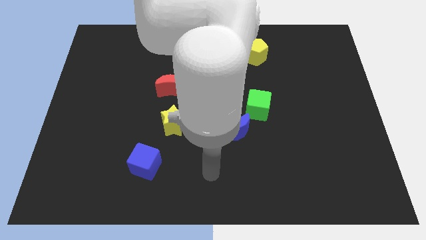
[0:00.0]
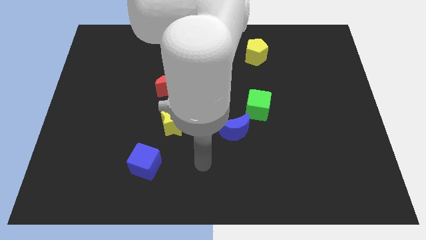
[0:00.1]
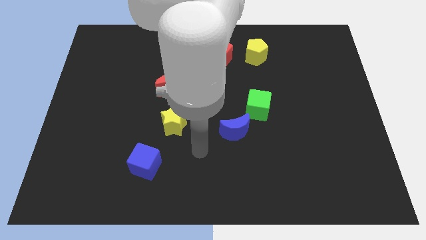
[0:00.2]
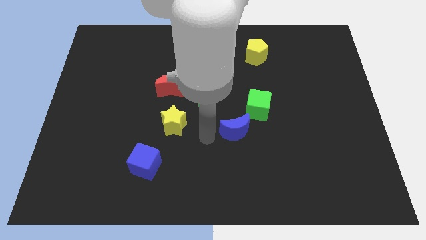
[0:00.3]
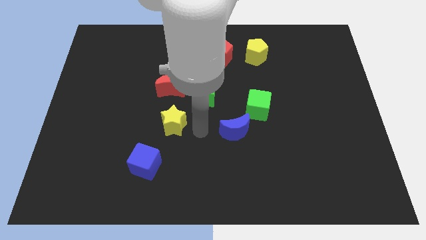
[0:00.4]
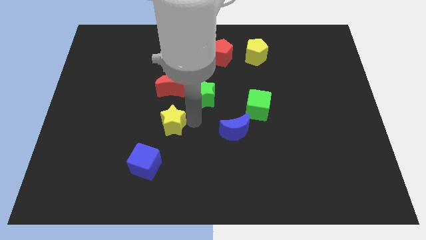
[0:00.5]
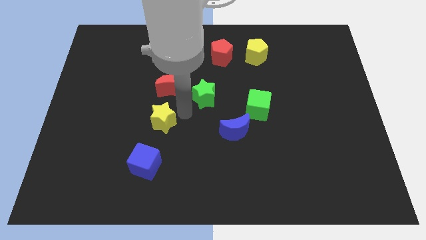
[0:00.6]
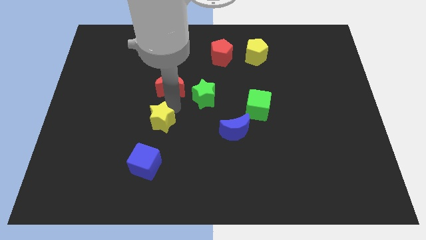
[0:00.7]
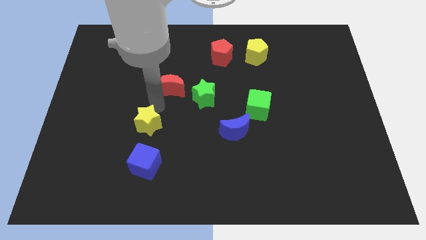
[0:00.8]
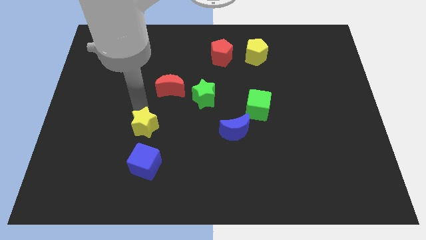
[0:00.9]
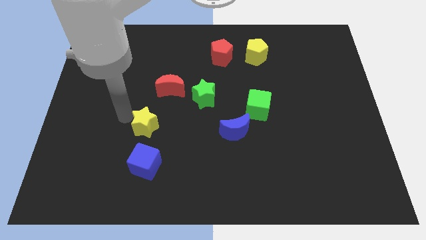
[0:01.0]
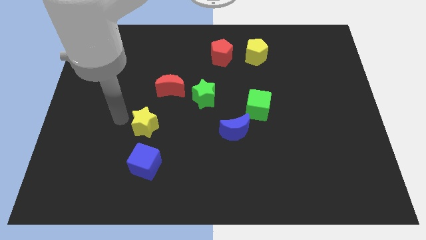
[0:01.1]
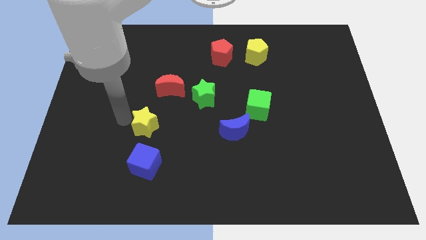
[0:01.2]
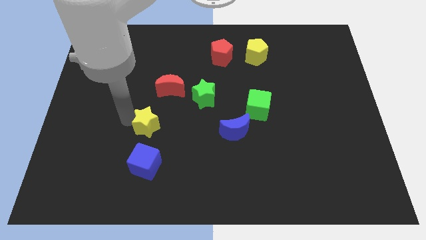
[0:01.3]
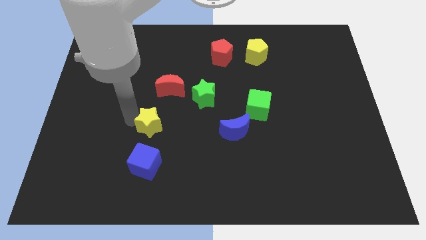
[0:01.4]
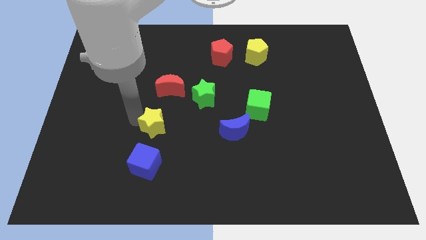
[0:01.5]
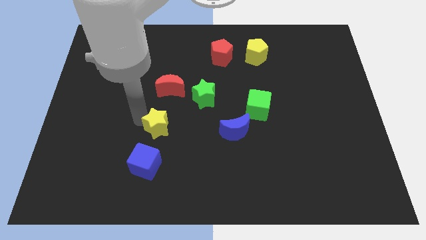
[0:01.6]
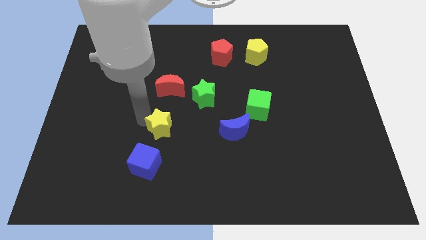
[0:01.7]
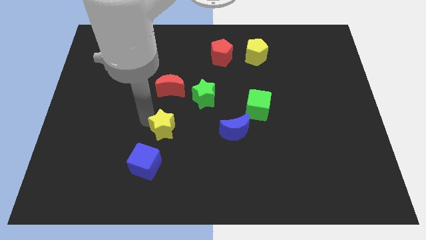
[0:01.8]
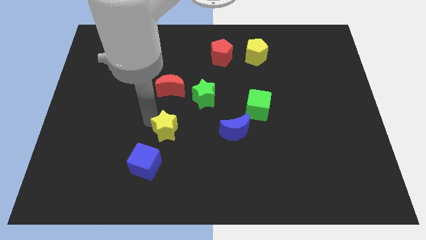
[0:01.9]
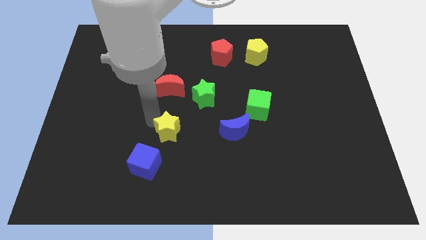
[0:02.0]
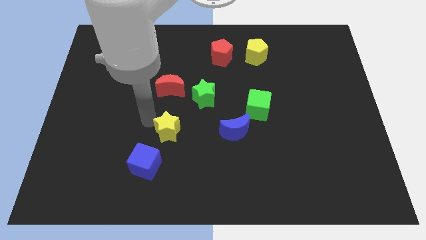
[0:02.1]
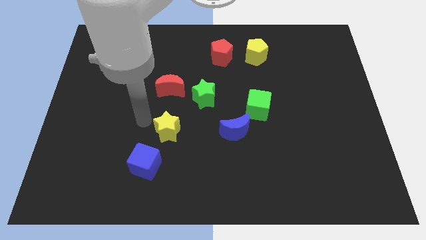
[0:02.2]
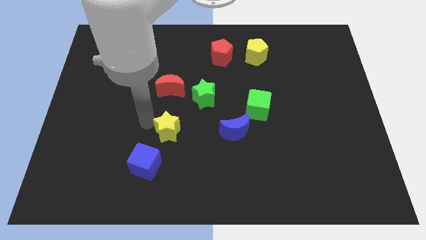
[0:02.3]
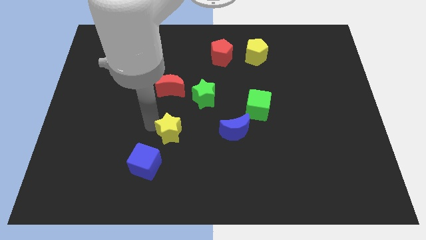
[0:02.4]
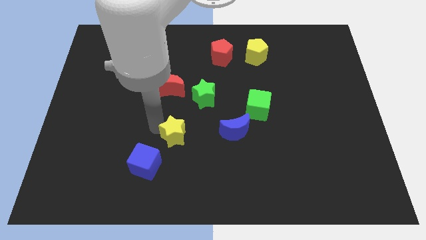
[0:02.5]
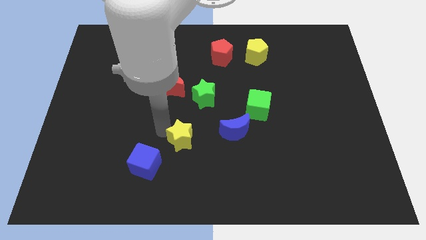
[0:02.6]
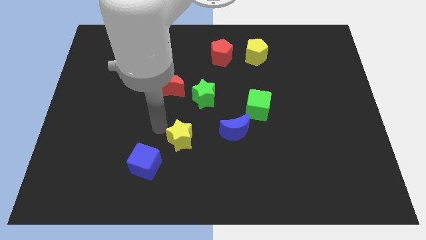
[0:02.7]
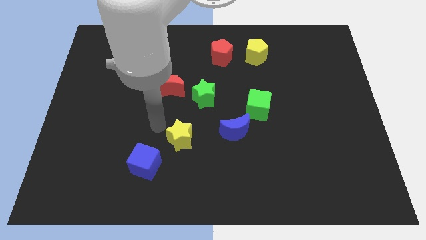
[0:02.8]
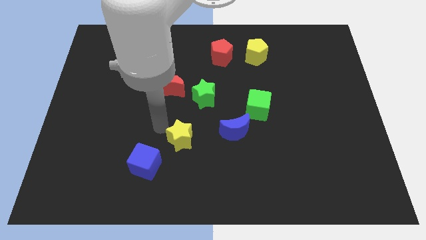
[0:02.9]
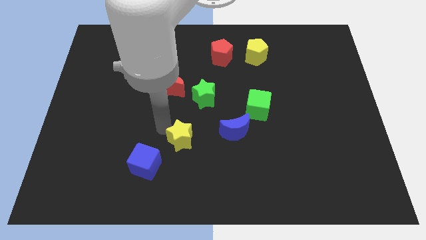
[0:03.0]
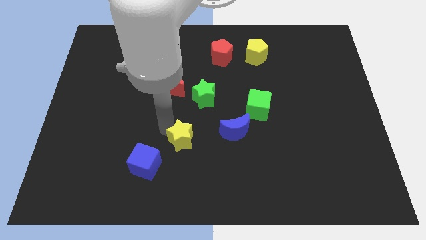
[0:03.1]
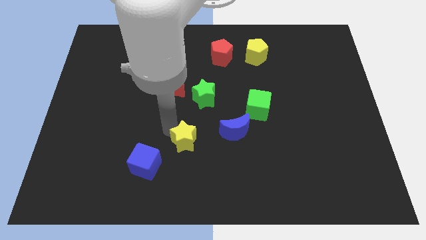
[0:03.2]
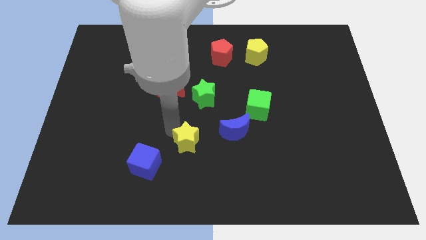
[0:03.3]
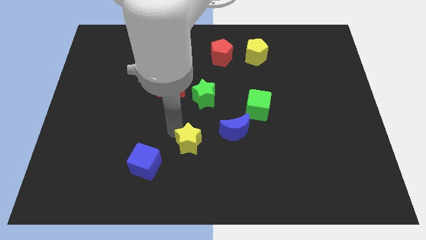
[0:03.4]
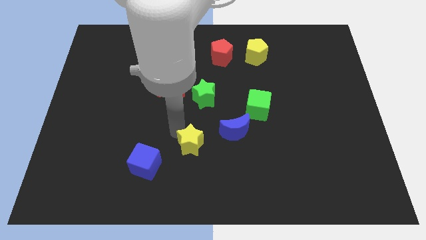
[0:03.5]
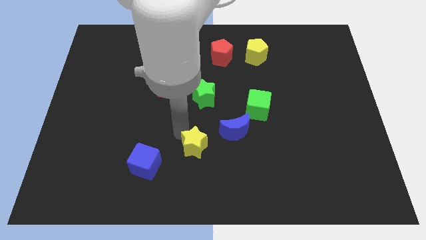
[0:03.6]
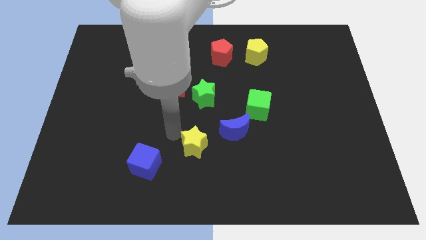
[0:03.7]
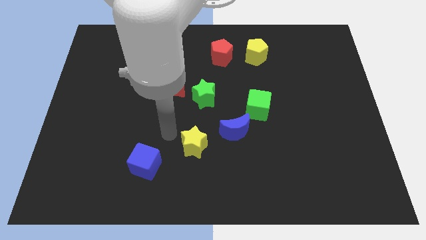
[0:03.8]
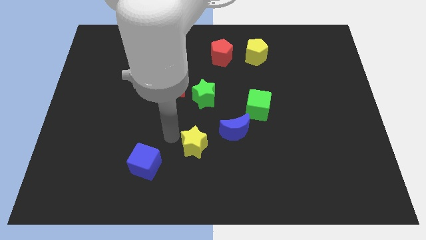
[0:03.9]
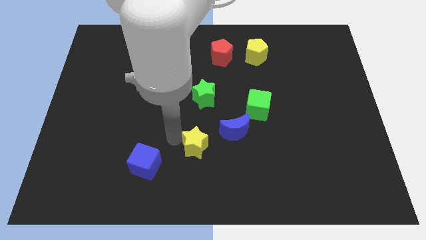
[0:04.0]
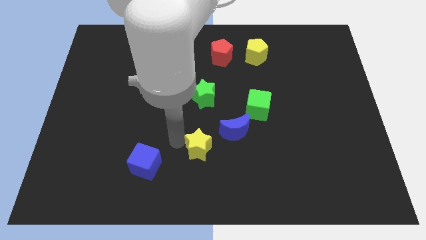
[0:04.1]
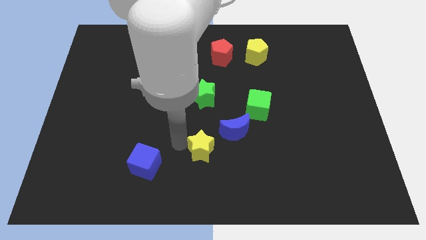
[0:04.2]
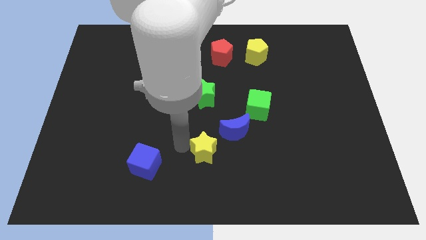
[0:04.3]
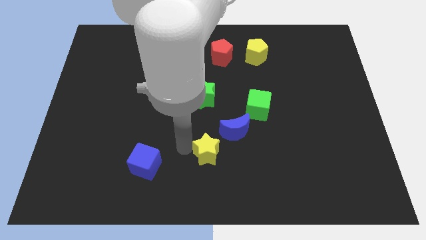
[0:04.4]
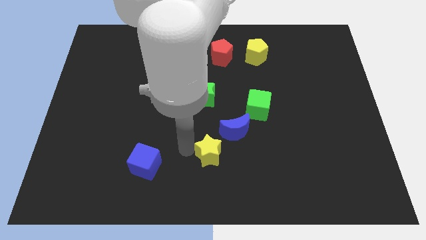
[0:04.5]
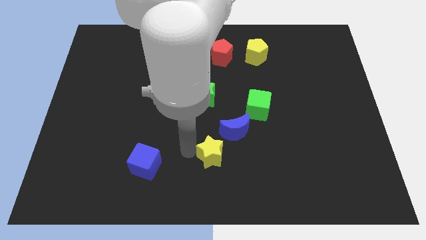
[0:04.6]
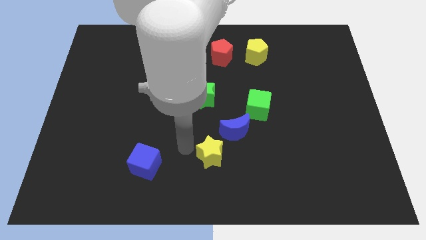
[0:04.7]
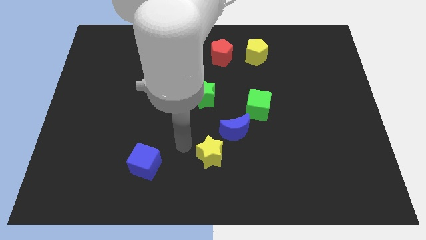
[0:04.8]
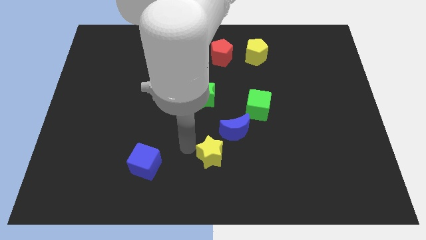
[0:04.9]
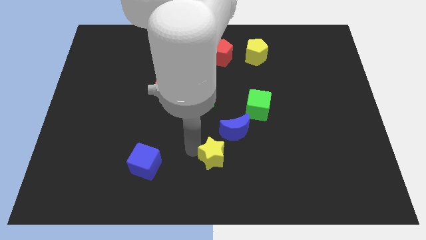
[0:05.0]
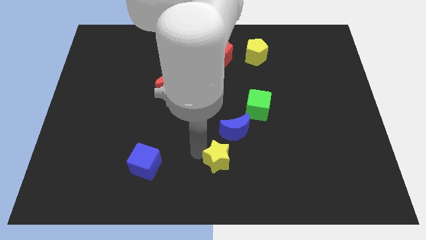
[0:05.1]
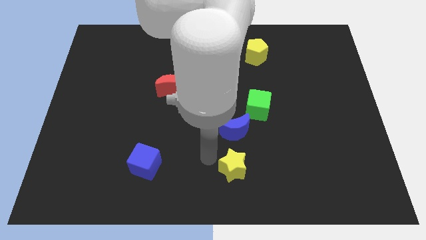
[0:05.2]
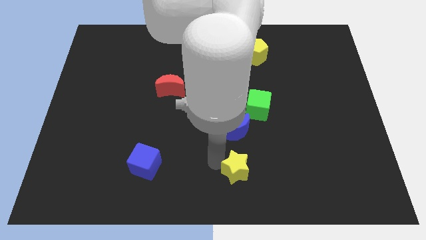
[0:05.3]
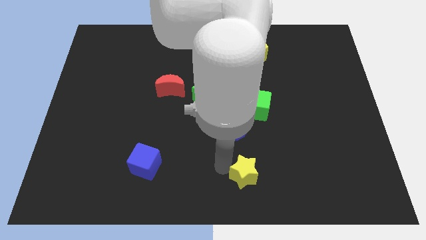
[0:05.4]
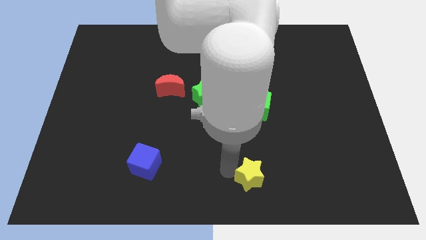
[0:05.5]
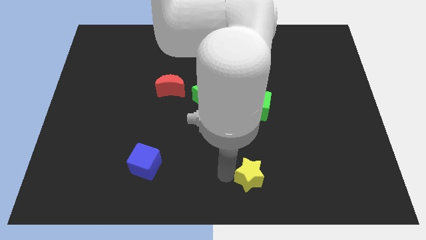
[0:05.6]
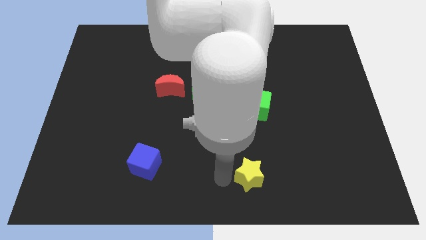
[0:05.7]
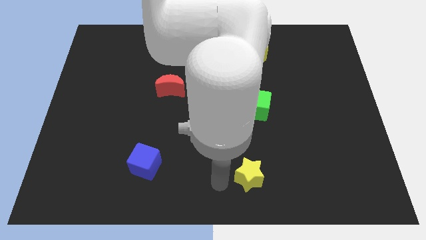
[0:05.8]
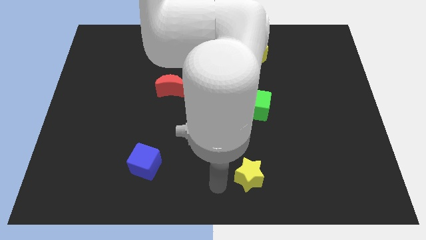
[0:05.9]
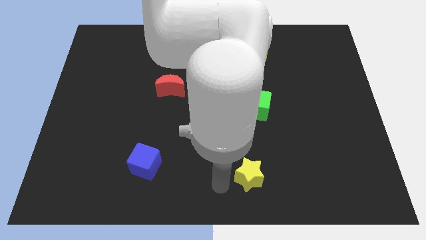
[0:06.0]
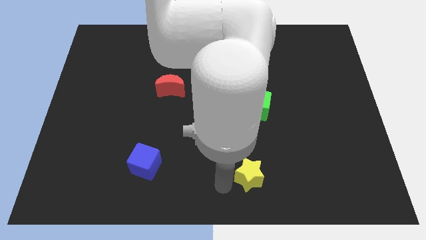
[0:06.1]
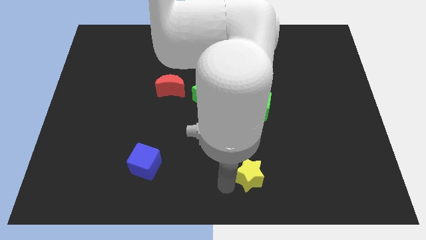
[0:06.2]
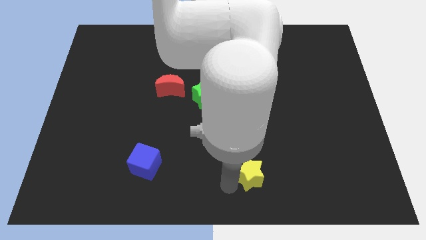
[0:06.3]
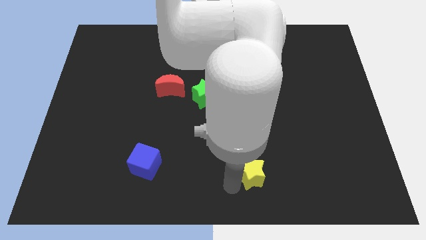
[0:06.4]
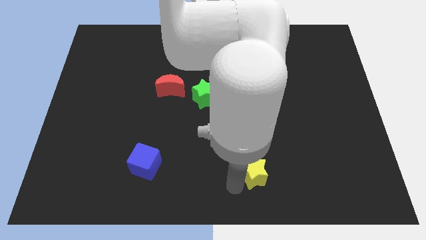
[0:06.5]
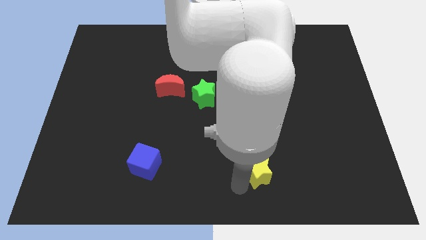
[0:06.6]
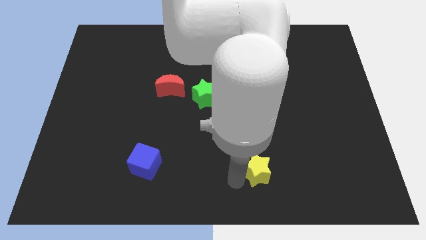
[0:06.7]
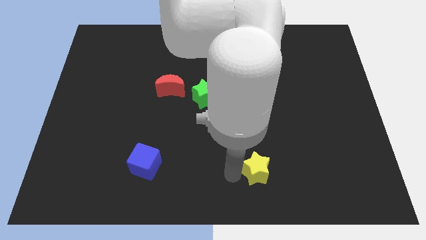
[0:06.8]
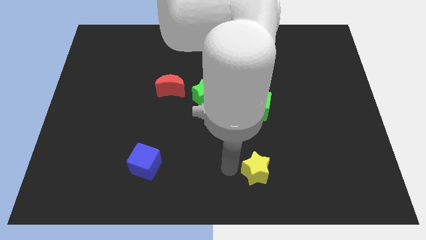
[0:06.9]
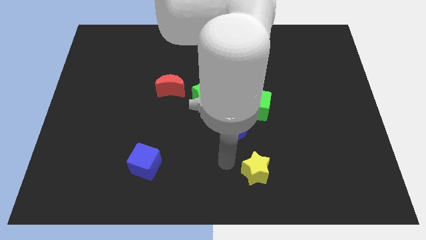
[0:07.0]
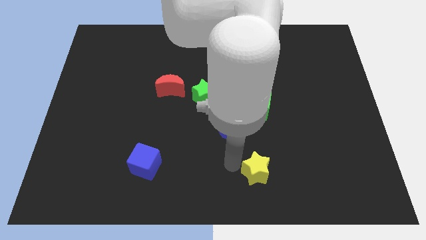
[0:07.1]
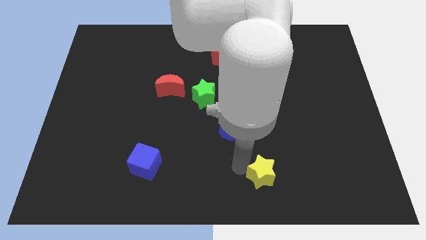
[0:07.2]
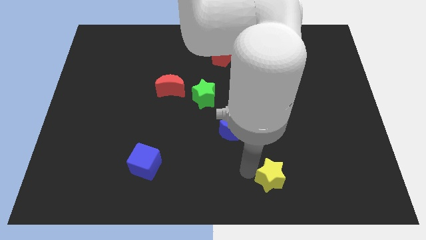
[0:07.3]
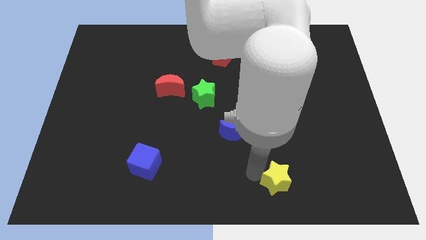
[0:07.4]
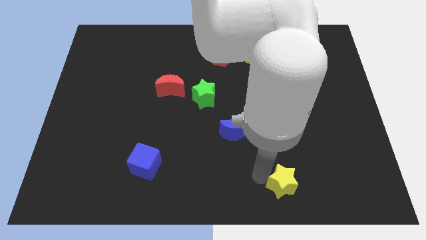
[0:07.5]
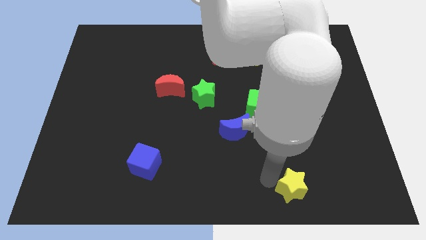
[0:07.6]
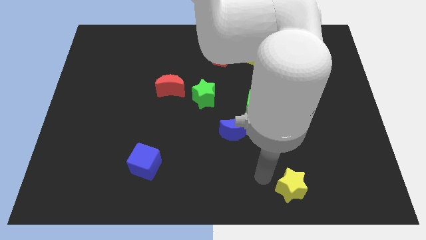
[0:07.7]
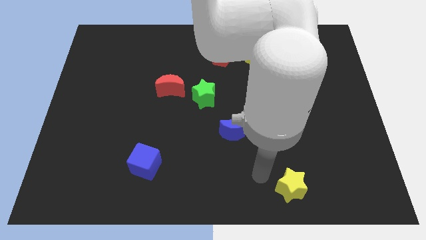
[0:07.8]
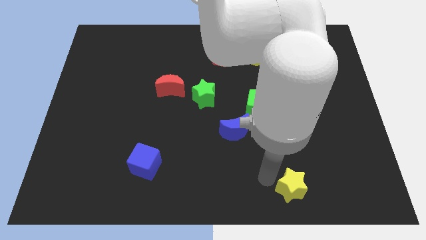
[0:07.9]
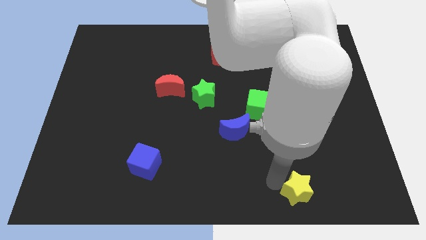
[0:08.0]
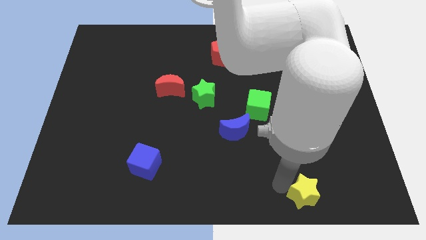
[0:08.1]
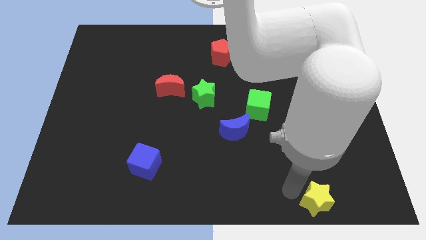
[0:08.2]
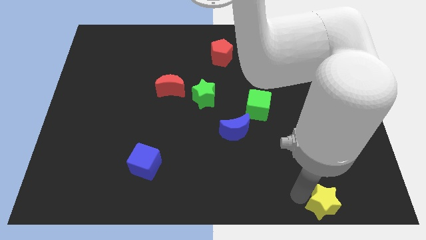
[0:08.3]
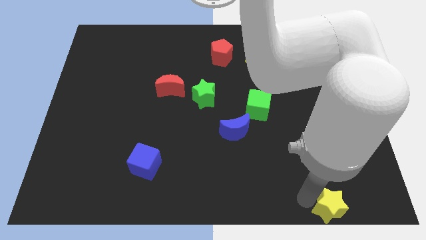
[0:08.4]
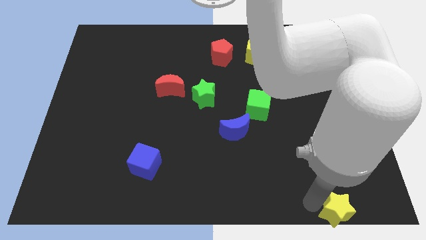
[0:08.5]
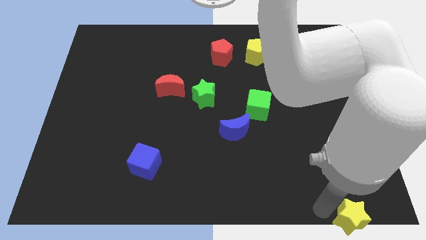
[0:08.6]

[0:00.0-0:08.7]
slide the yellow star to the bottom right of the board
